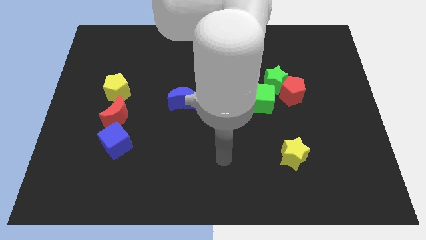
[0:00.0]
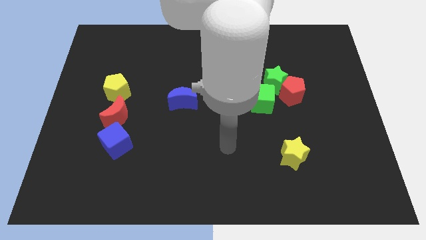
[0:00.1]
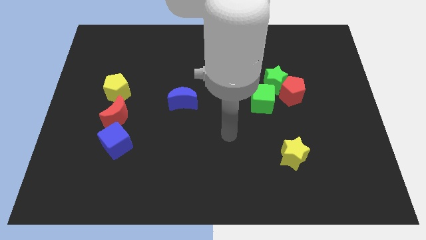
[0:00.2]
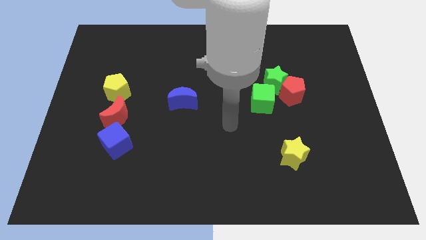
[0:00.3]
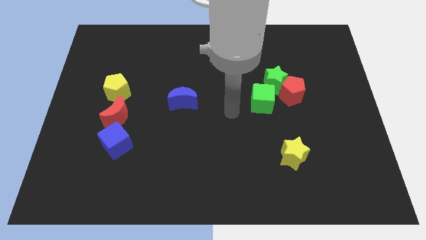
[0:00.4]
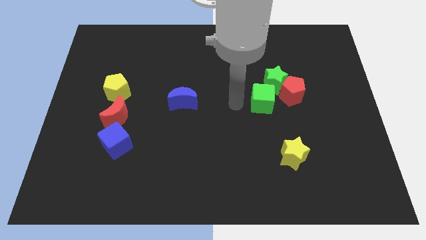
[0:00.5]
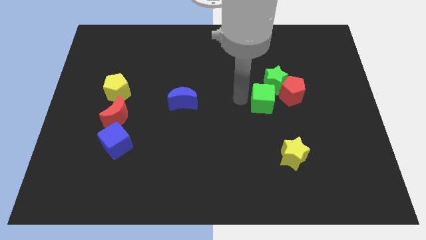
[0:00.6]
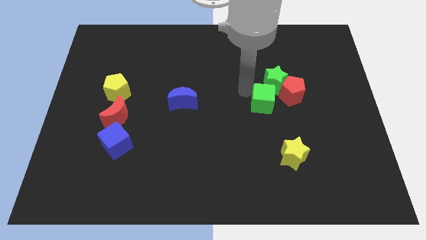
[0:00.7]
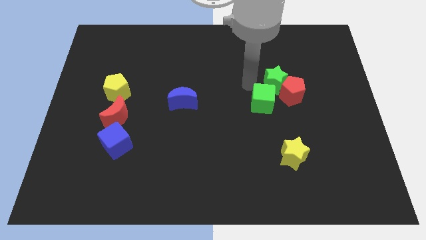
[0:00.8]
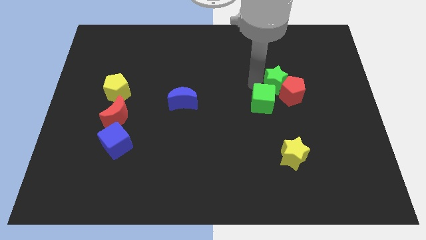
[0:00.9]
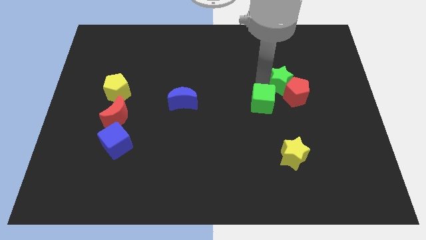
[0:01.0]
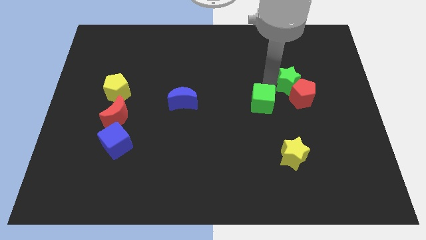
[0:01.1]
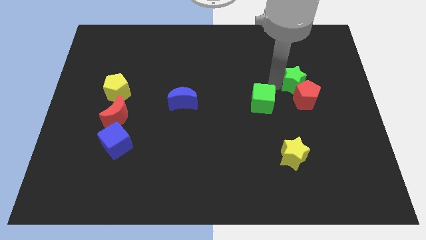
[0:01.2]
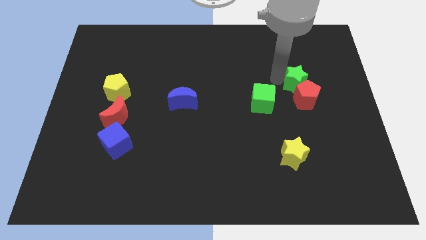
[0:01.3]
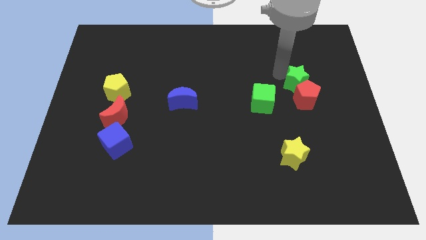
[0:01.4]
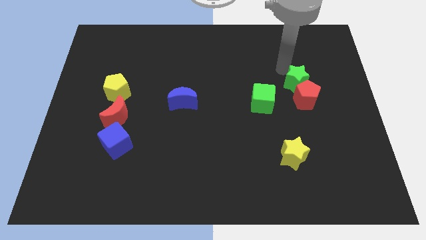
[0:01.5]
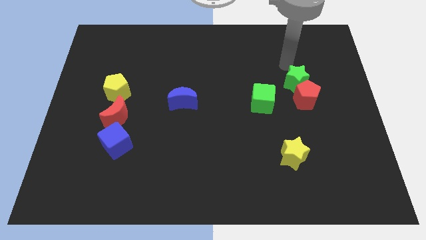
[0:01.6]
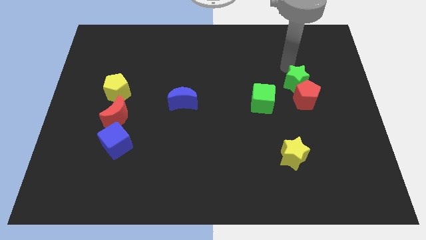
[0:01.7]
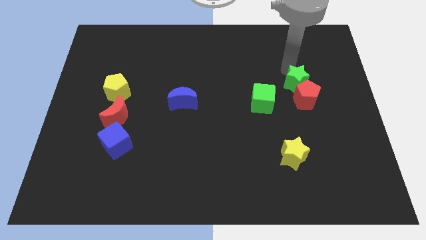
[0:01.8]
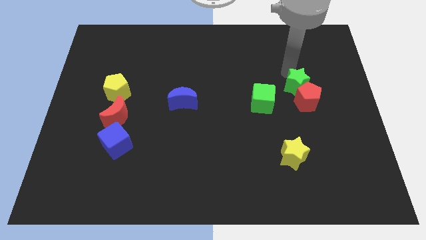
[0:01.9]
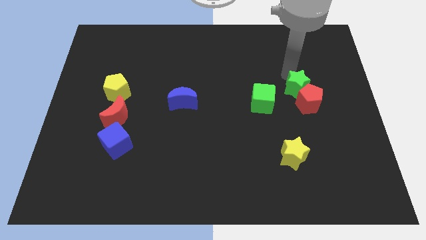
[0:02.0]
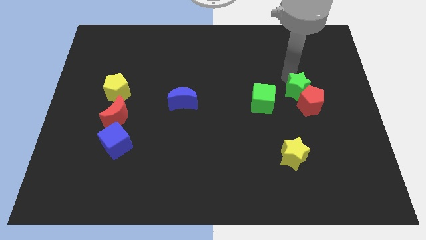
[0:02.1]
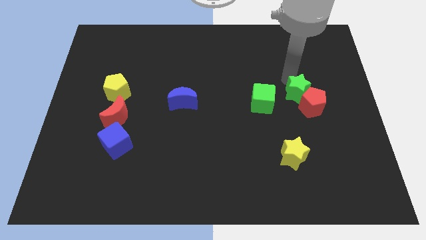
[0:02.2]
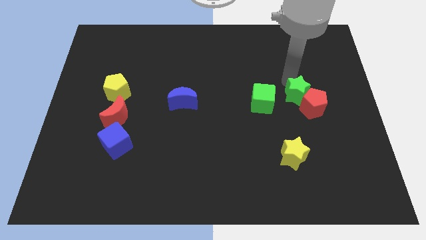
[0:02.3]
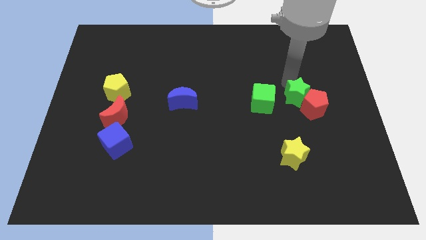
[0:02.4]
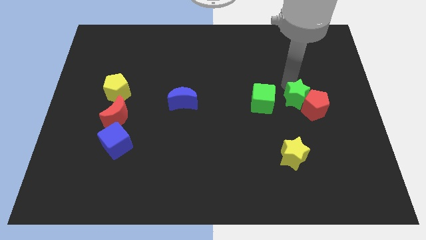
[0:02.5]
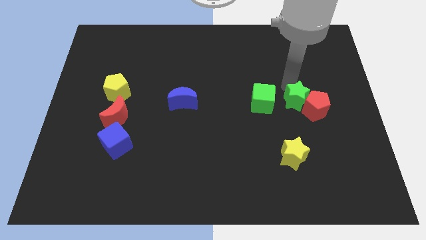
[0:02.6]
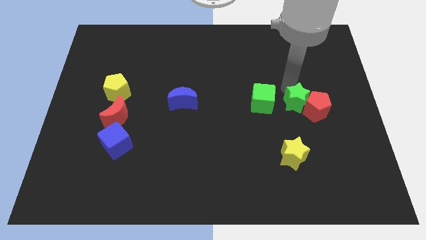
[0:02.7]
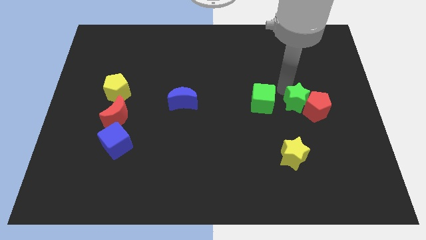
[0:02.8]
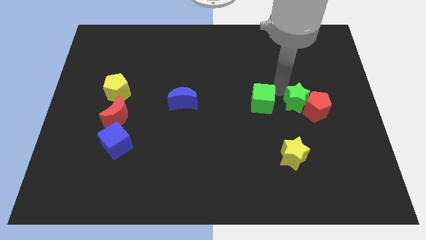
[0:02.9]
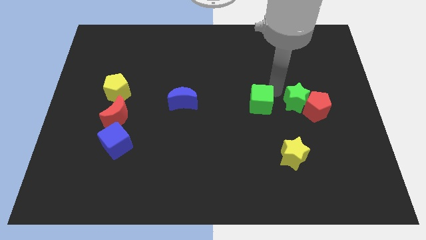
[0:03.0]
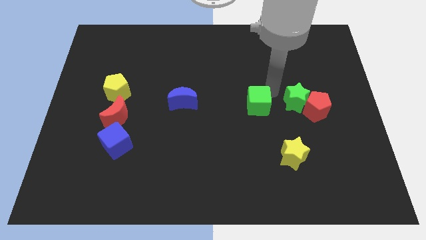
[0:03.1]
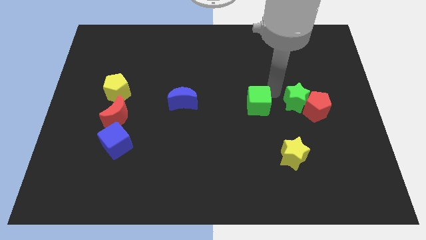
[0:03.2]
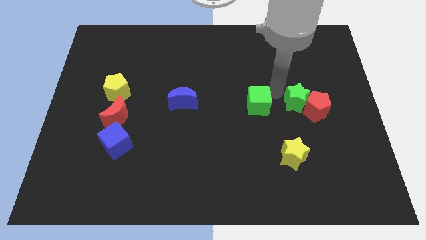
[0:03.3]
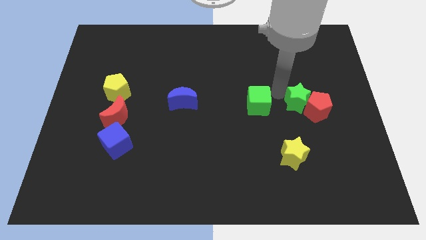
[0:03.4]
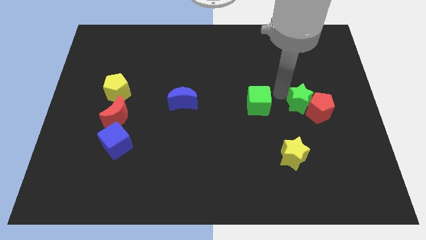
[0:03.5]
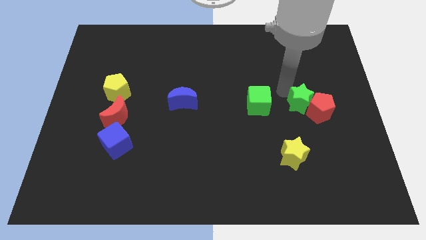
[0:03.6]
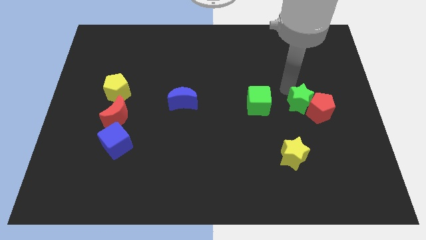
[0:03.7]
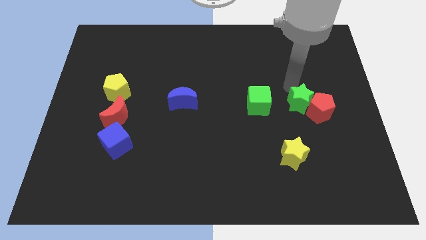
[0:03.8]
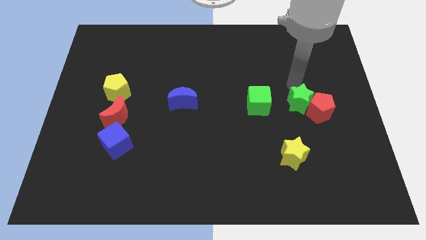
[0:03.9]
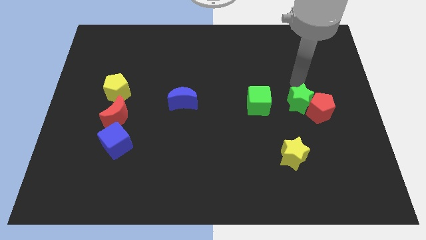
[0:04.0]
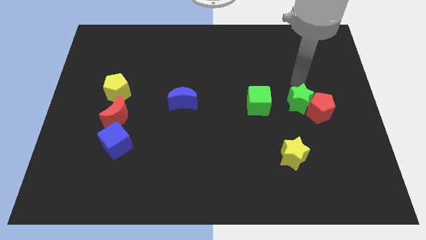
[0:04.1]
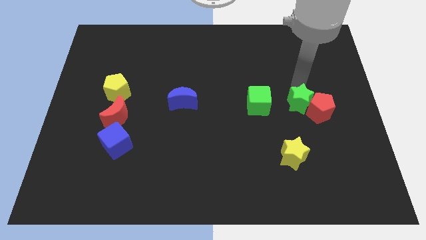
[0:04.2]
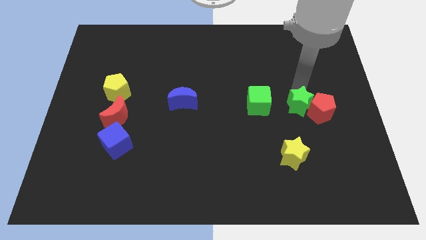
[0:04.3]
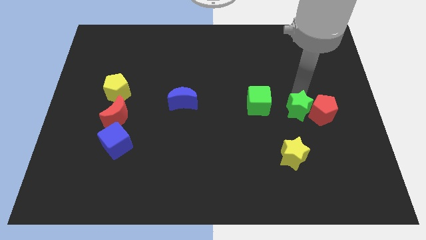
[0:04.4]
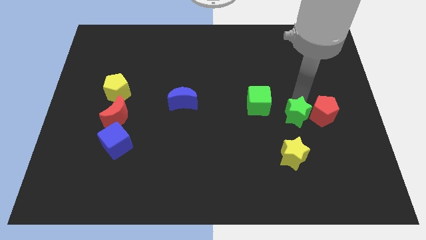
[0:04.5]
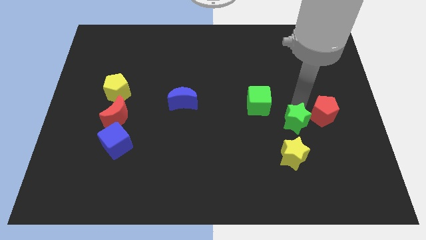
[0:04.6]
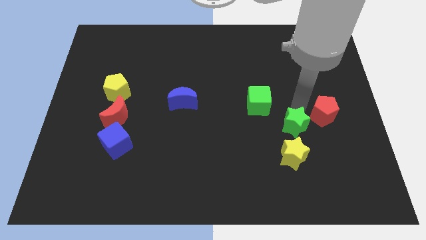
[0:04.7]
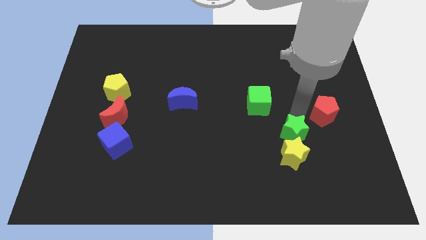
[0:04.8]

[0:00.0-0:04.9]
put the green star towards the yellow star

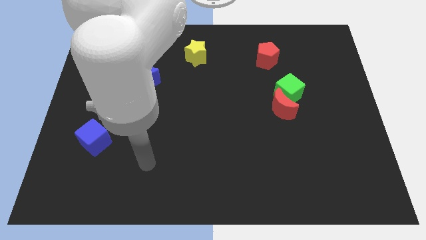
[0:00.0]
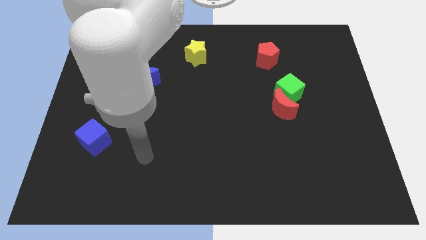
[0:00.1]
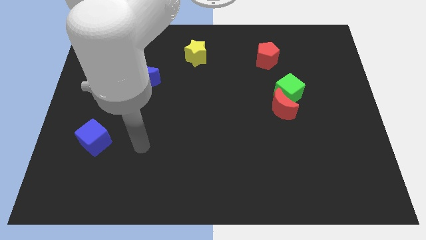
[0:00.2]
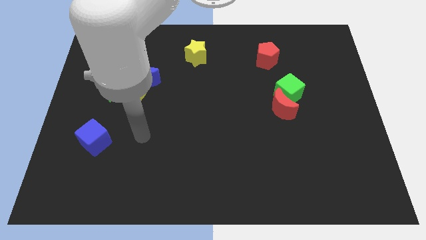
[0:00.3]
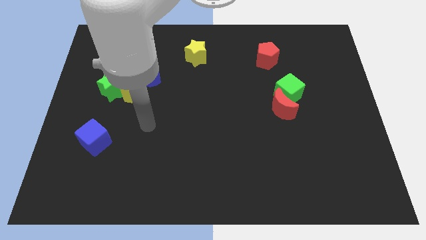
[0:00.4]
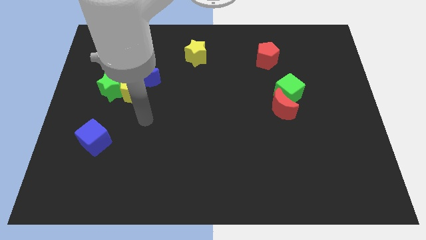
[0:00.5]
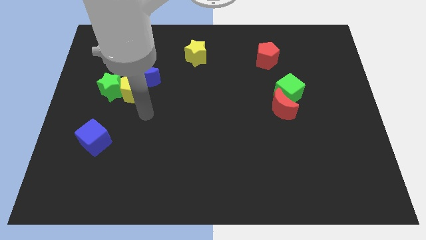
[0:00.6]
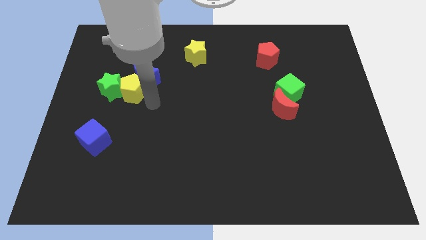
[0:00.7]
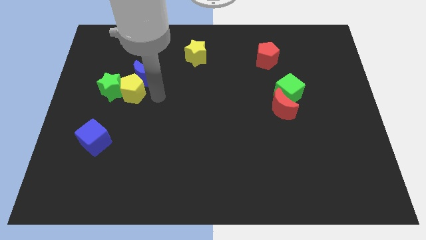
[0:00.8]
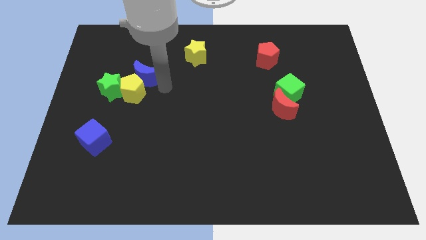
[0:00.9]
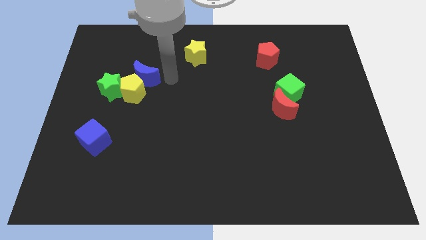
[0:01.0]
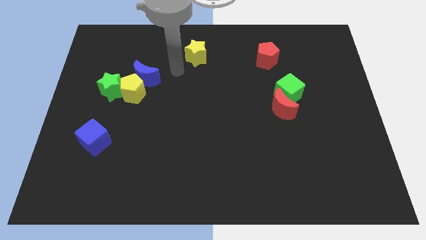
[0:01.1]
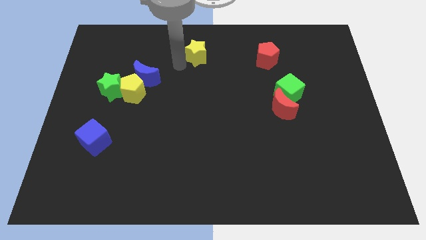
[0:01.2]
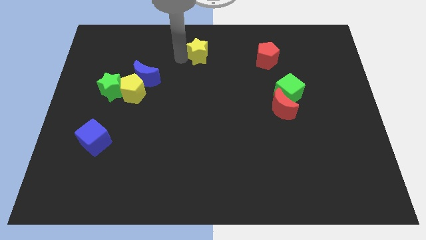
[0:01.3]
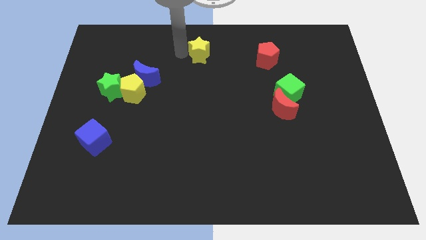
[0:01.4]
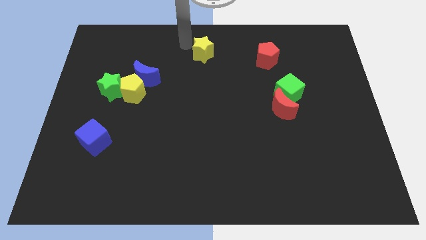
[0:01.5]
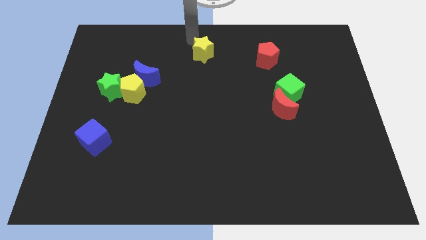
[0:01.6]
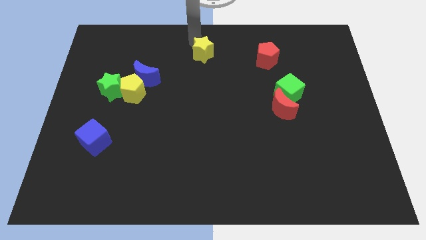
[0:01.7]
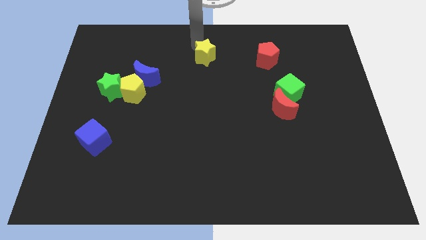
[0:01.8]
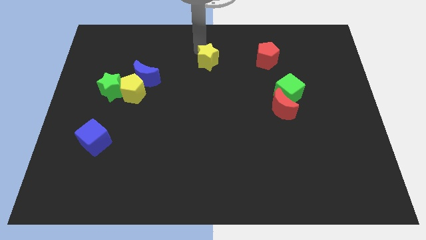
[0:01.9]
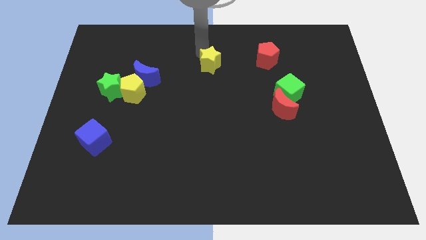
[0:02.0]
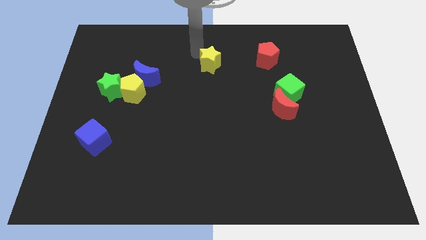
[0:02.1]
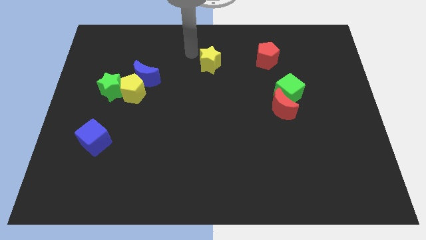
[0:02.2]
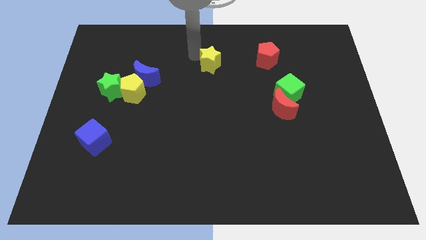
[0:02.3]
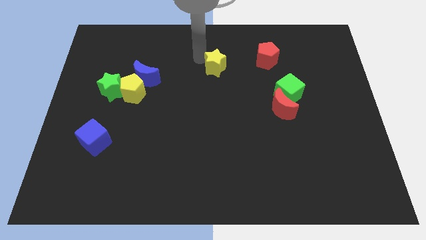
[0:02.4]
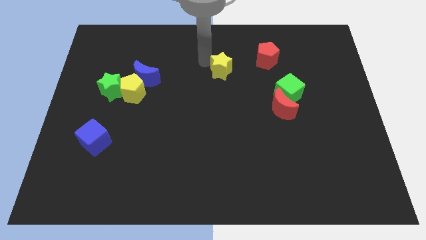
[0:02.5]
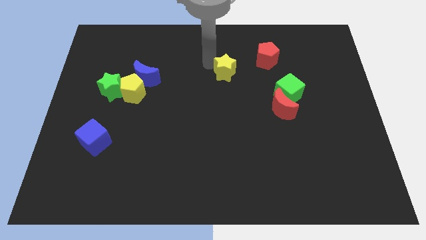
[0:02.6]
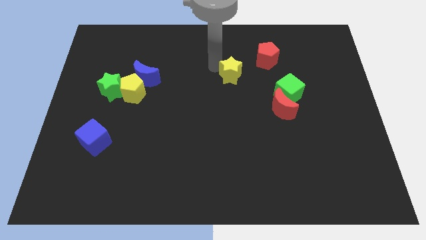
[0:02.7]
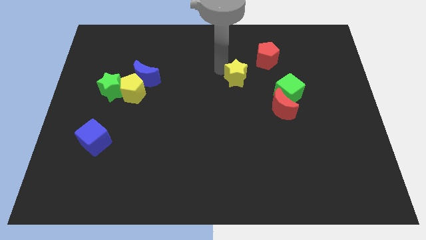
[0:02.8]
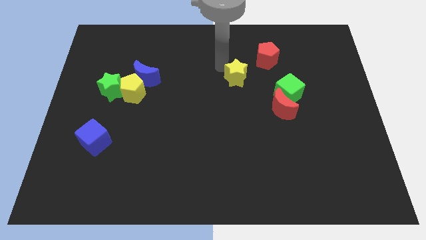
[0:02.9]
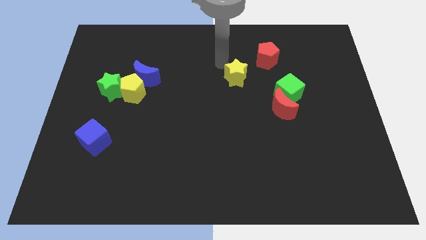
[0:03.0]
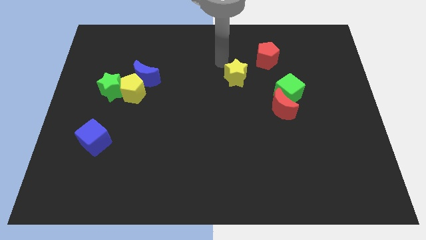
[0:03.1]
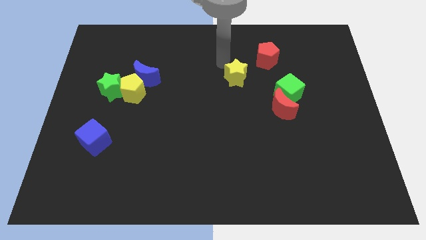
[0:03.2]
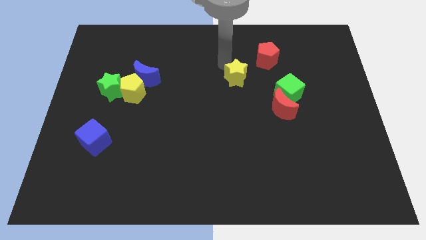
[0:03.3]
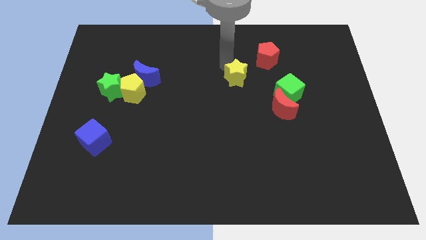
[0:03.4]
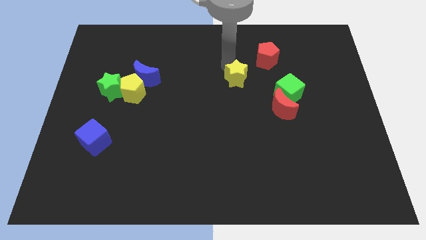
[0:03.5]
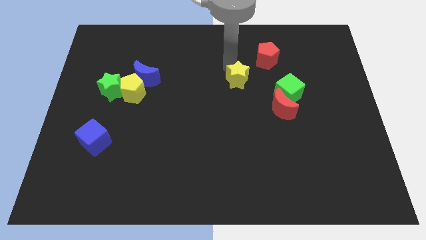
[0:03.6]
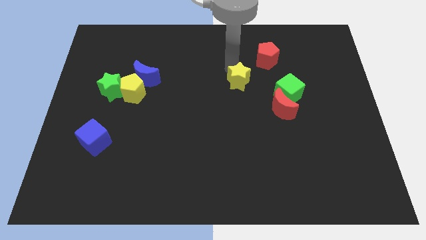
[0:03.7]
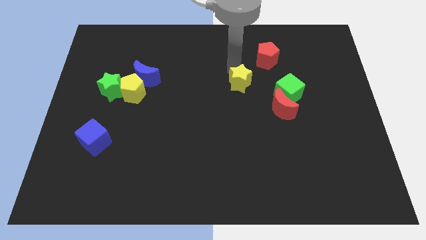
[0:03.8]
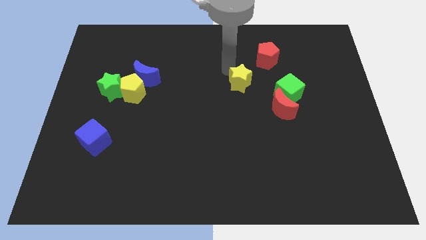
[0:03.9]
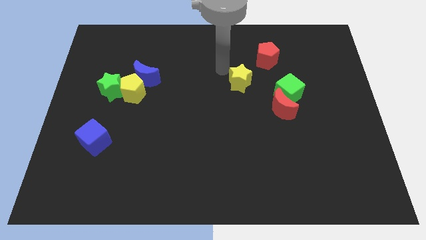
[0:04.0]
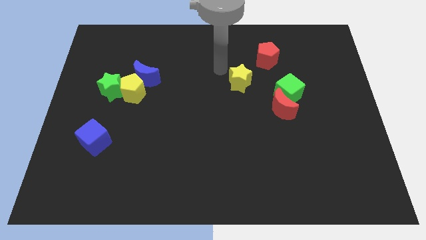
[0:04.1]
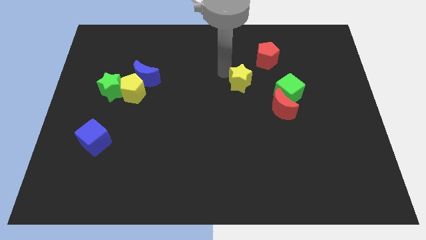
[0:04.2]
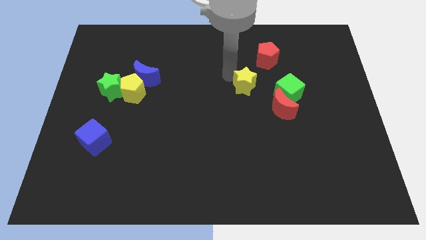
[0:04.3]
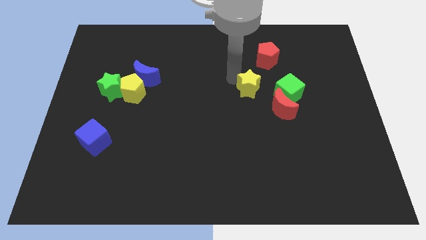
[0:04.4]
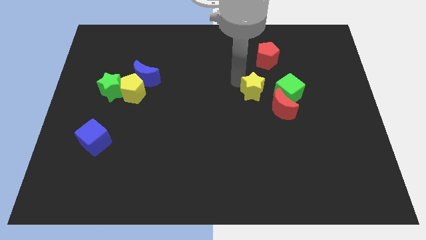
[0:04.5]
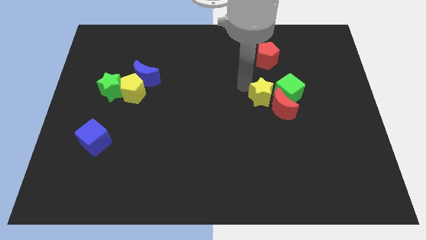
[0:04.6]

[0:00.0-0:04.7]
put the yellow star to the red moon
